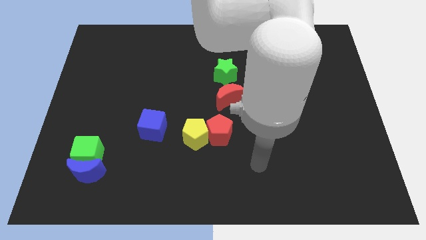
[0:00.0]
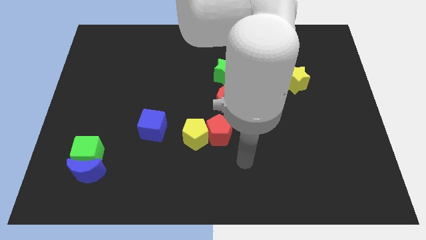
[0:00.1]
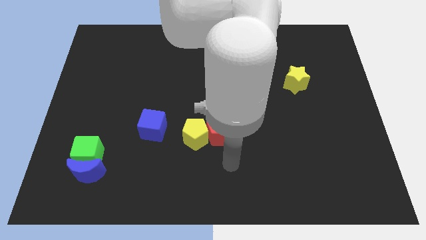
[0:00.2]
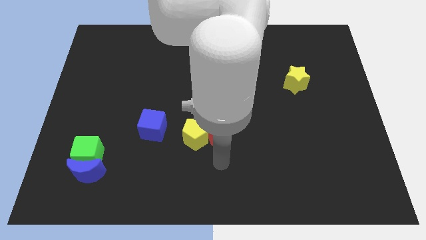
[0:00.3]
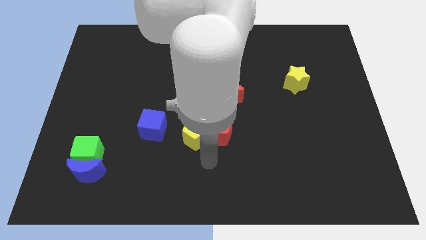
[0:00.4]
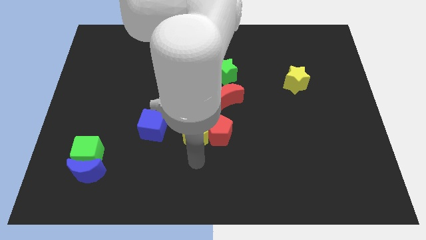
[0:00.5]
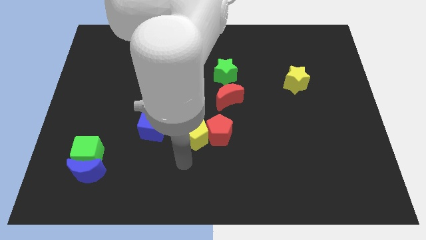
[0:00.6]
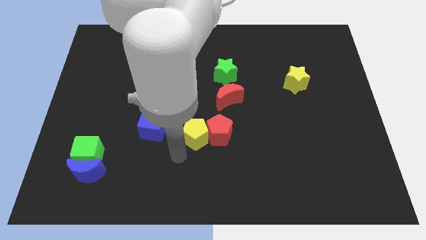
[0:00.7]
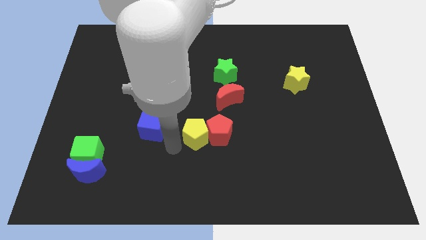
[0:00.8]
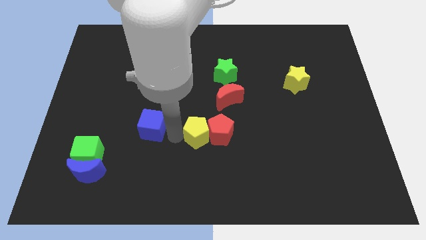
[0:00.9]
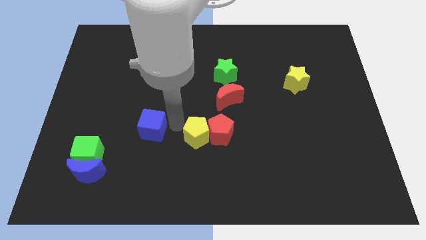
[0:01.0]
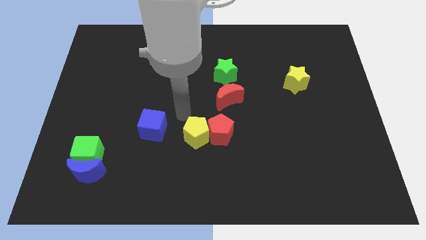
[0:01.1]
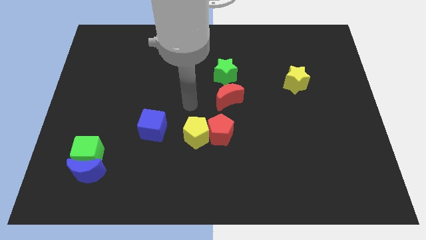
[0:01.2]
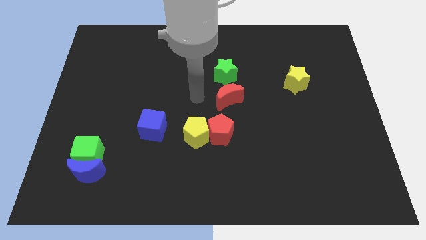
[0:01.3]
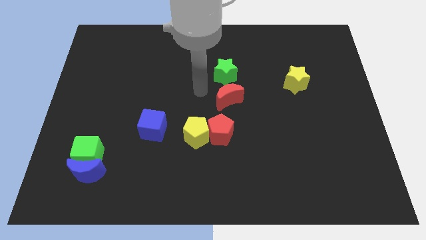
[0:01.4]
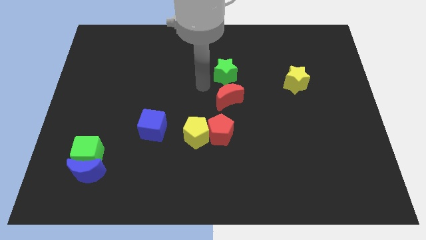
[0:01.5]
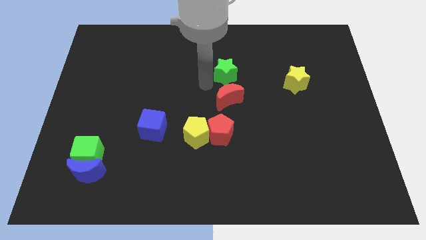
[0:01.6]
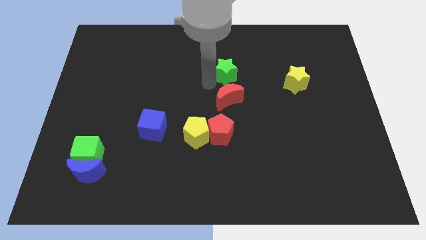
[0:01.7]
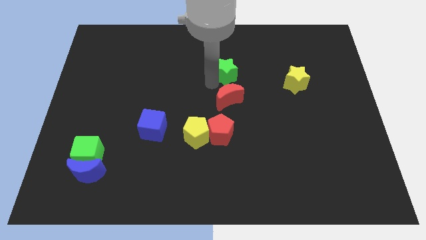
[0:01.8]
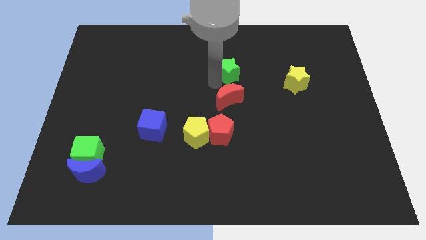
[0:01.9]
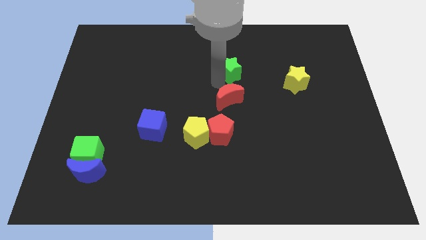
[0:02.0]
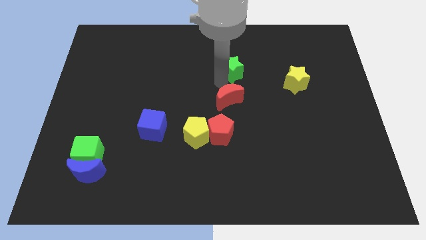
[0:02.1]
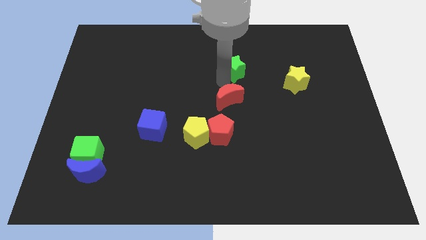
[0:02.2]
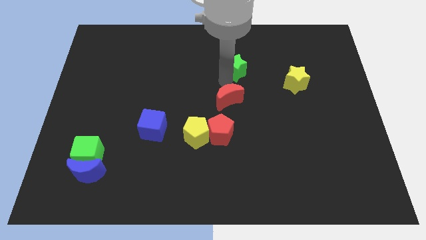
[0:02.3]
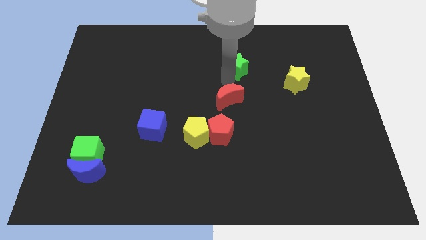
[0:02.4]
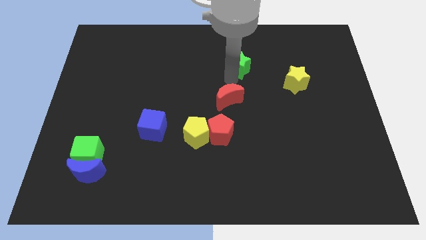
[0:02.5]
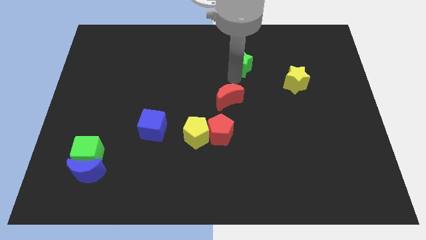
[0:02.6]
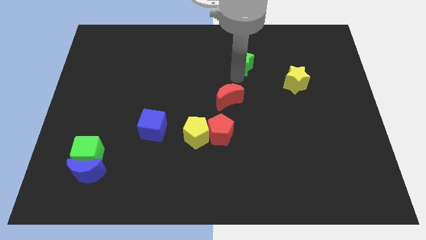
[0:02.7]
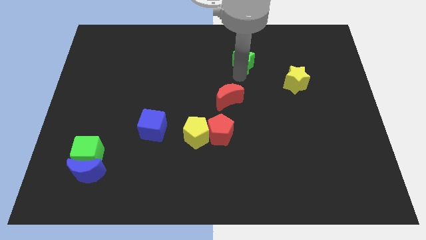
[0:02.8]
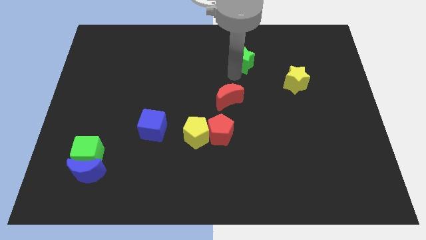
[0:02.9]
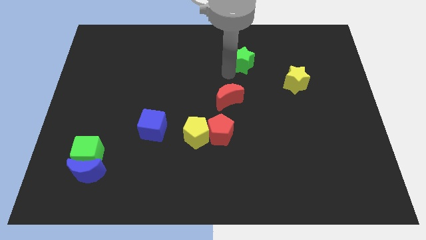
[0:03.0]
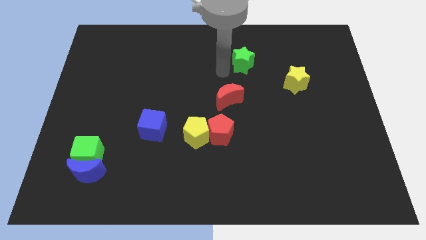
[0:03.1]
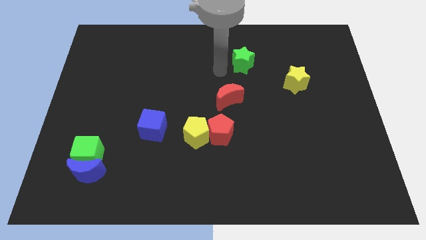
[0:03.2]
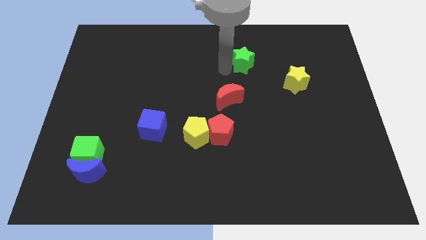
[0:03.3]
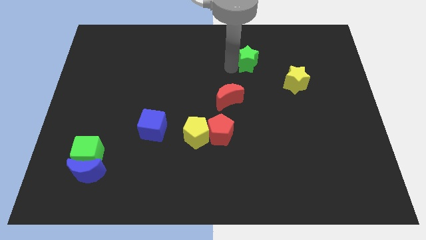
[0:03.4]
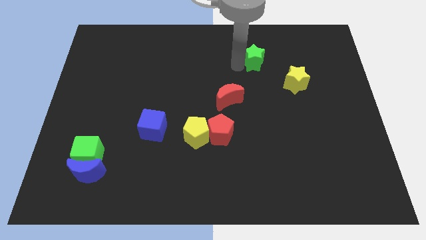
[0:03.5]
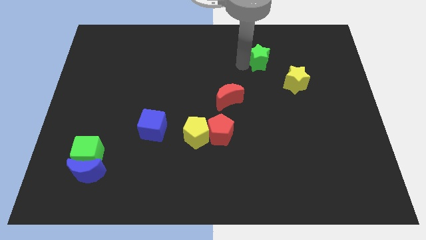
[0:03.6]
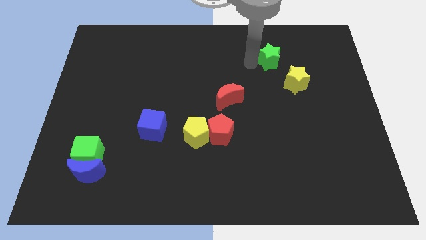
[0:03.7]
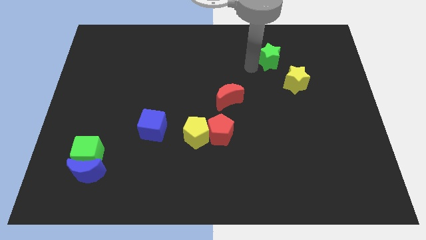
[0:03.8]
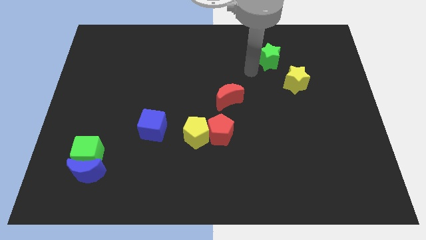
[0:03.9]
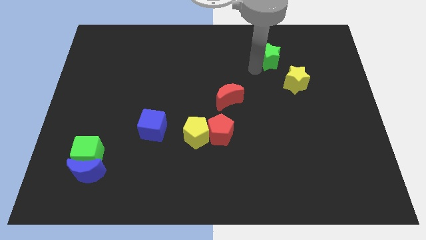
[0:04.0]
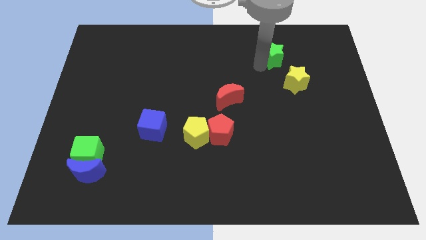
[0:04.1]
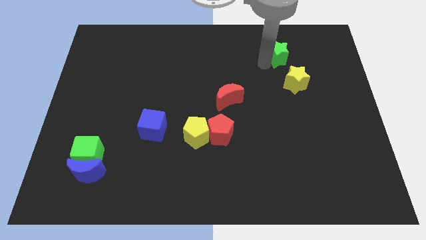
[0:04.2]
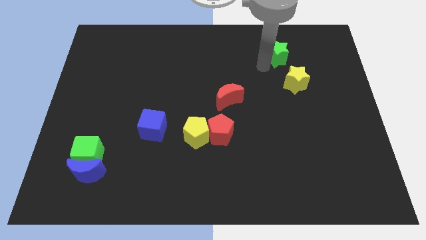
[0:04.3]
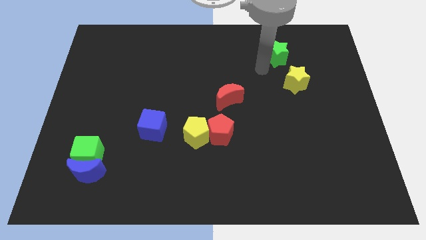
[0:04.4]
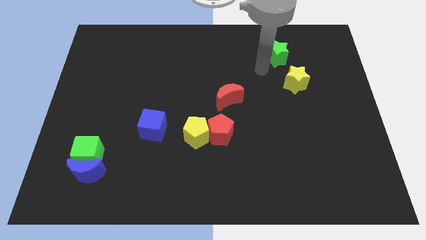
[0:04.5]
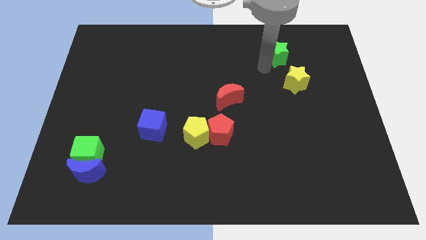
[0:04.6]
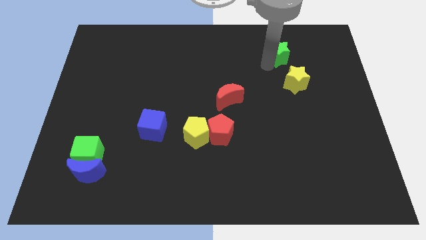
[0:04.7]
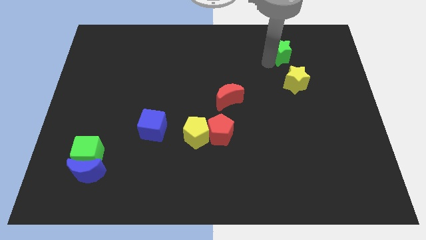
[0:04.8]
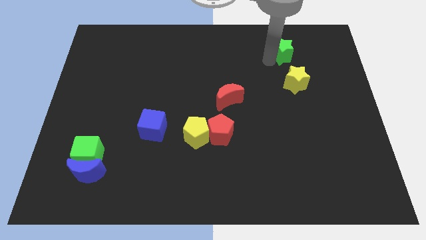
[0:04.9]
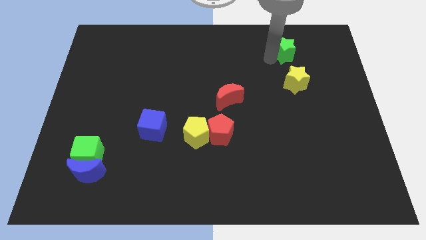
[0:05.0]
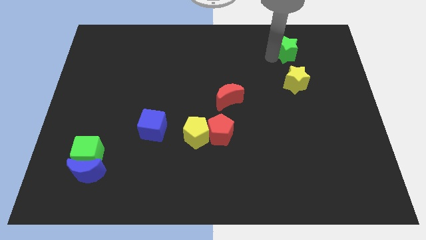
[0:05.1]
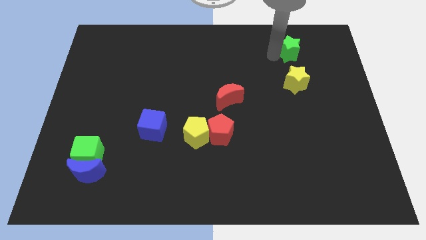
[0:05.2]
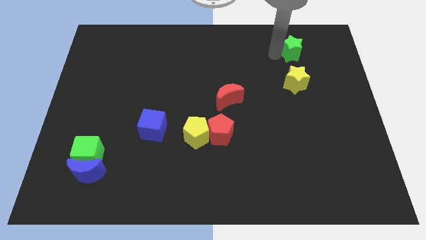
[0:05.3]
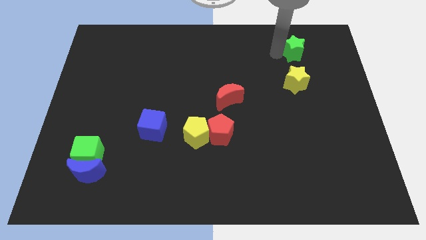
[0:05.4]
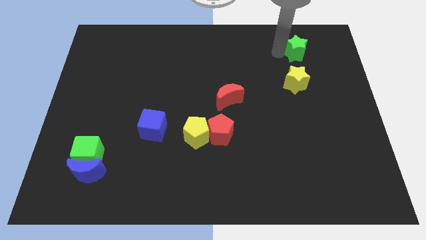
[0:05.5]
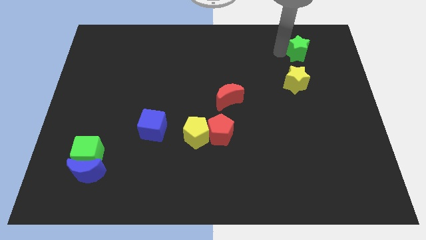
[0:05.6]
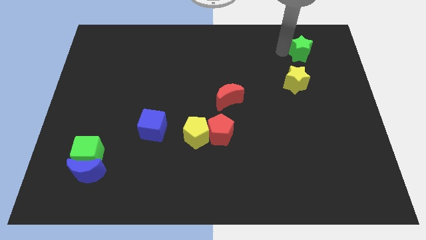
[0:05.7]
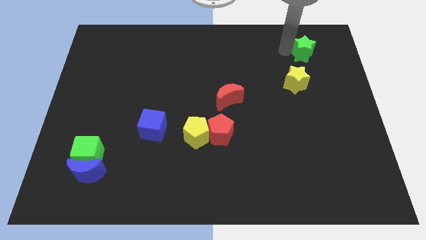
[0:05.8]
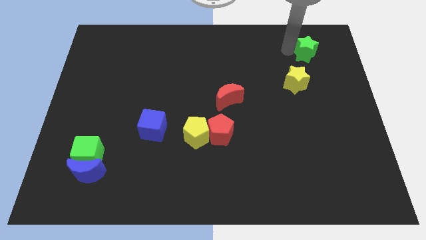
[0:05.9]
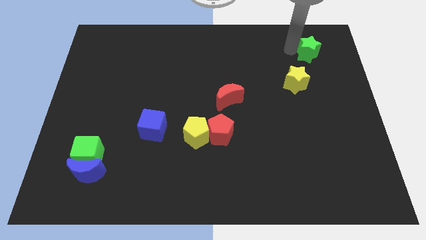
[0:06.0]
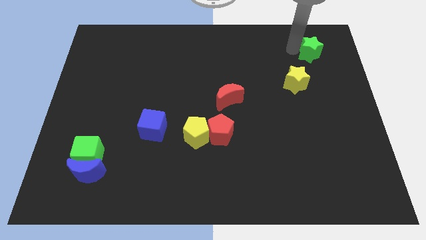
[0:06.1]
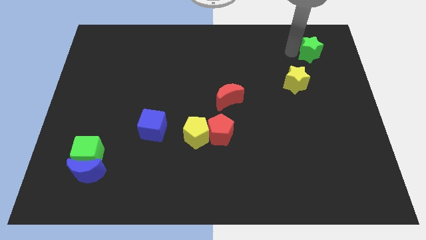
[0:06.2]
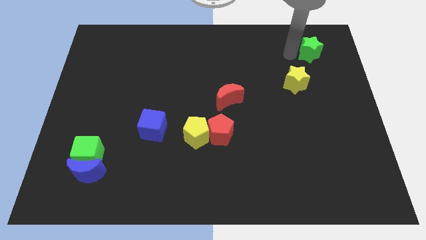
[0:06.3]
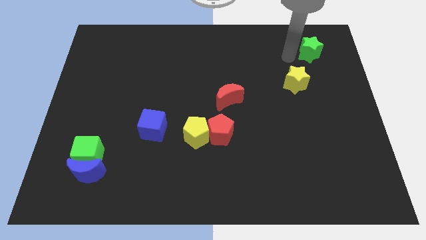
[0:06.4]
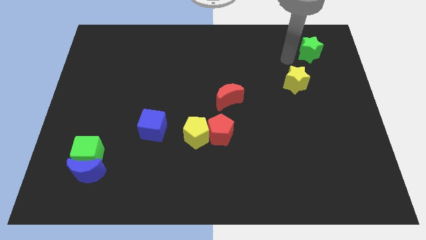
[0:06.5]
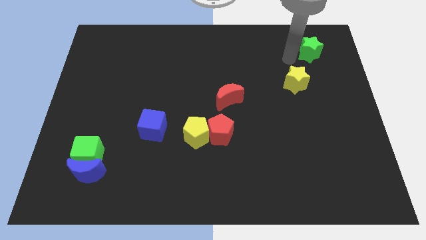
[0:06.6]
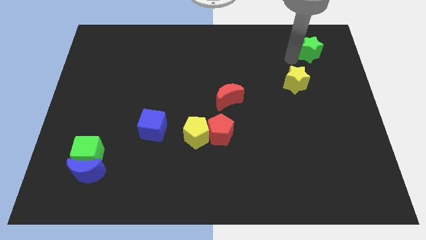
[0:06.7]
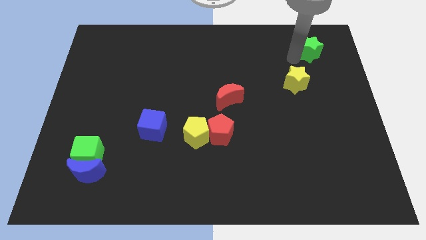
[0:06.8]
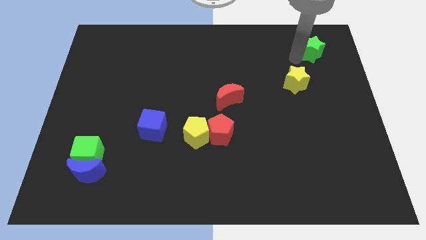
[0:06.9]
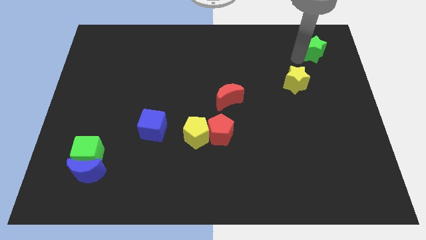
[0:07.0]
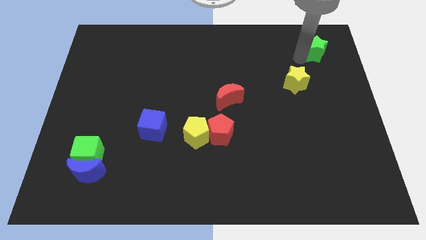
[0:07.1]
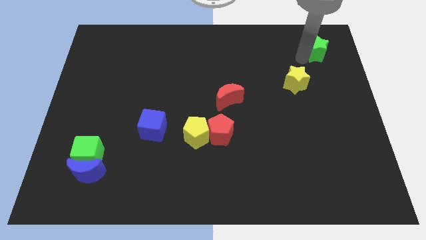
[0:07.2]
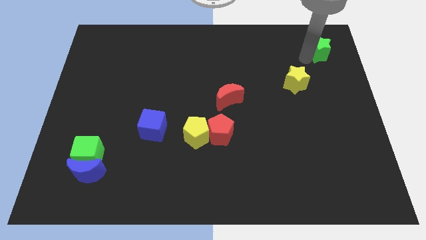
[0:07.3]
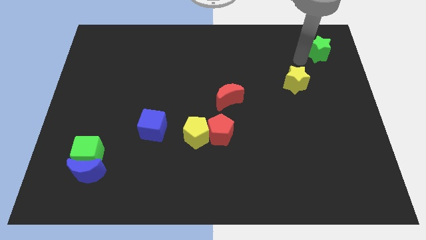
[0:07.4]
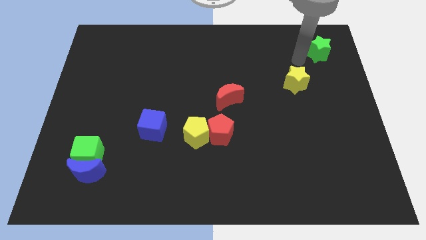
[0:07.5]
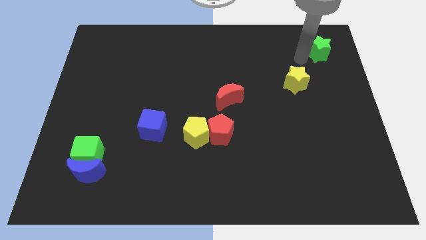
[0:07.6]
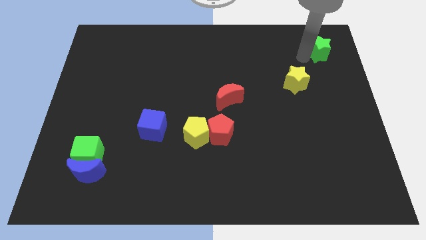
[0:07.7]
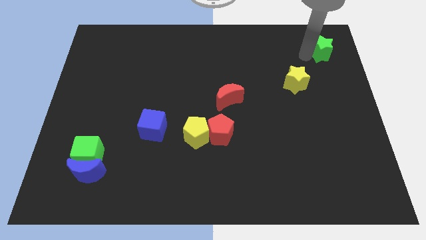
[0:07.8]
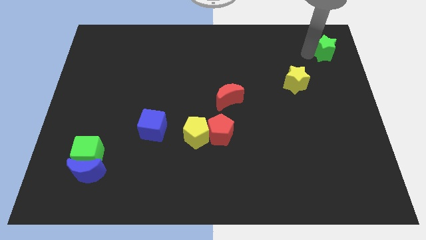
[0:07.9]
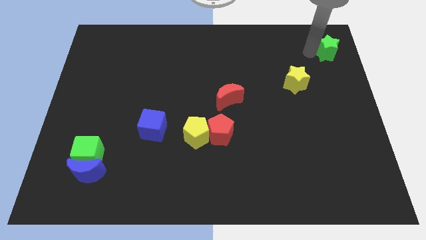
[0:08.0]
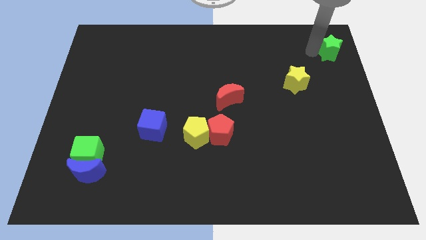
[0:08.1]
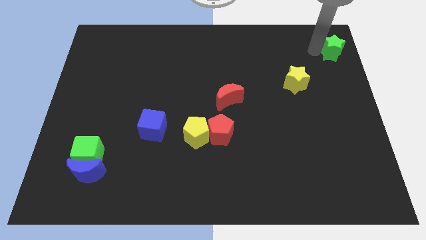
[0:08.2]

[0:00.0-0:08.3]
put the green star to the top right of the board
